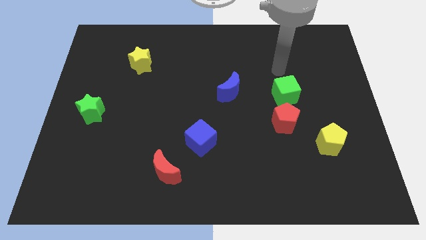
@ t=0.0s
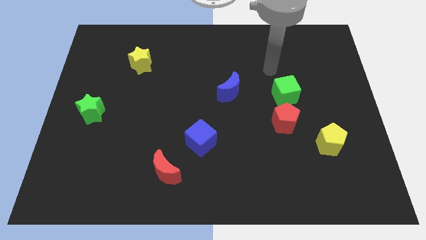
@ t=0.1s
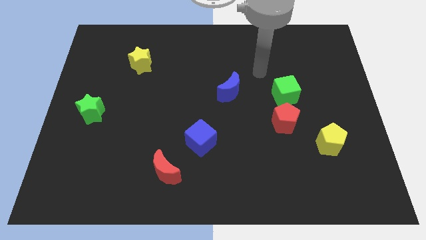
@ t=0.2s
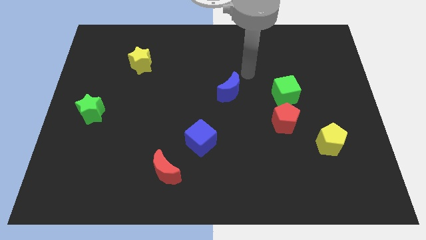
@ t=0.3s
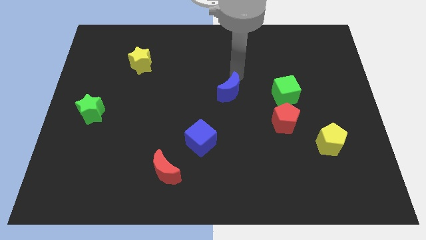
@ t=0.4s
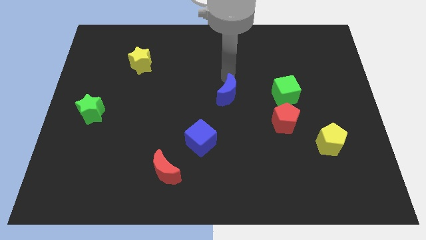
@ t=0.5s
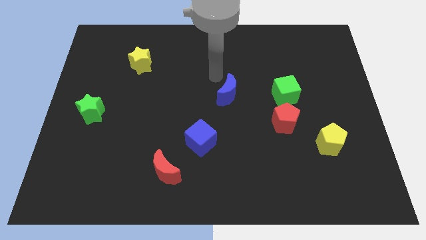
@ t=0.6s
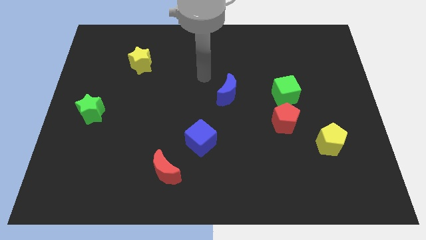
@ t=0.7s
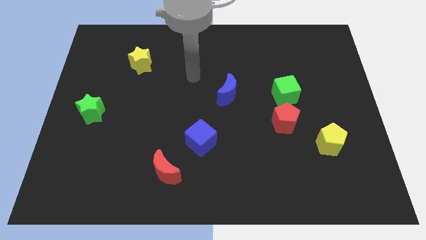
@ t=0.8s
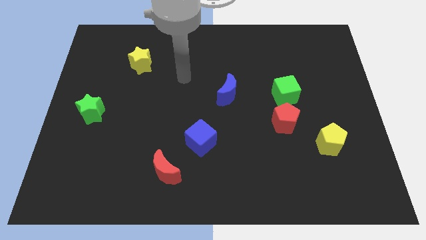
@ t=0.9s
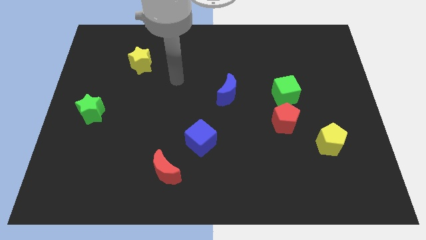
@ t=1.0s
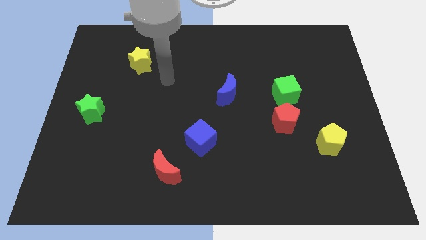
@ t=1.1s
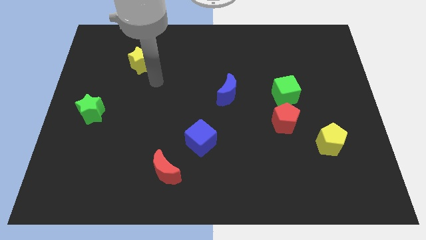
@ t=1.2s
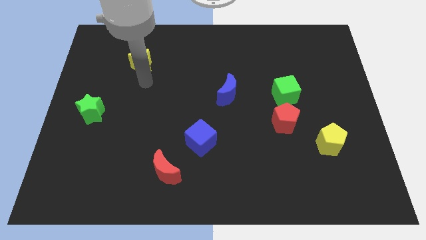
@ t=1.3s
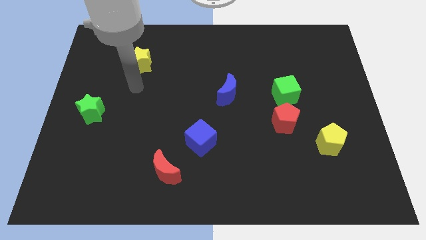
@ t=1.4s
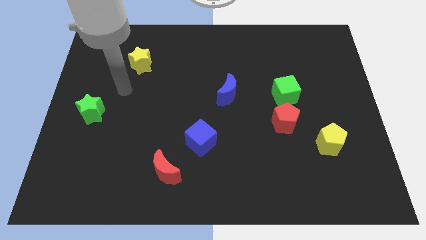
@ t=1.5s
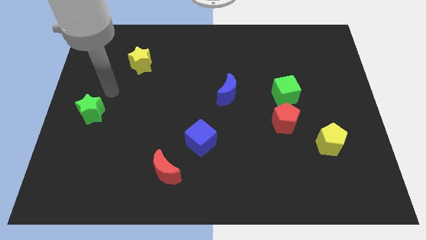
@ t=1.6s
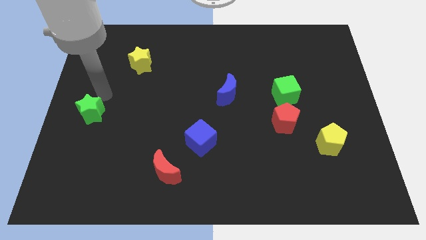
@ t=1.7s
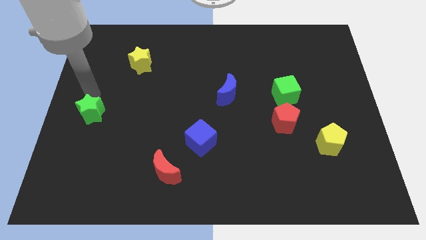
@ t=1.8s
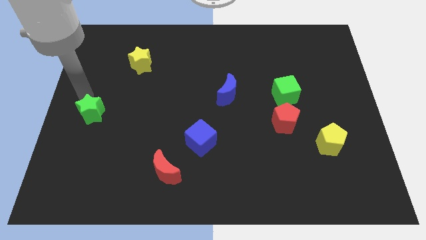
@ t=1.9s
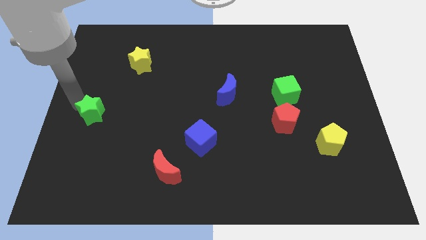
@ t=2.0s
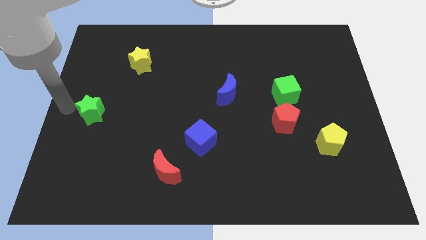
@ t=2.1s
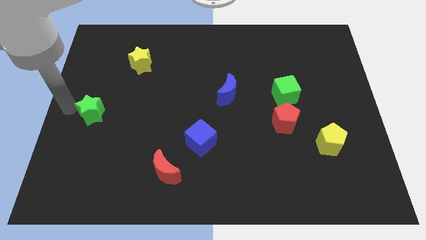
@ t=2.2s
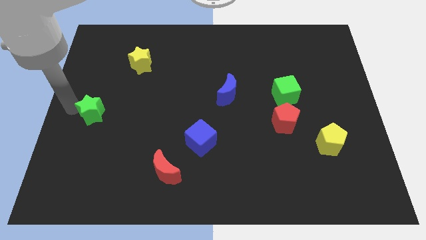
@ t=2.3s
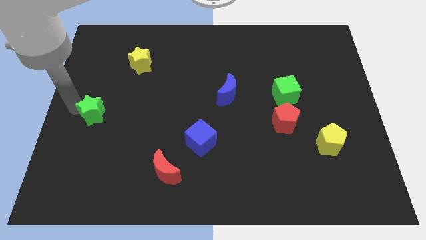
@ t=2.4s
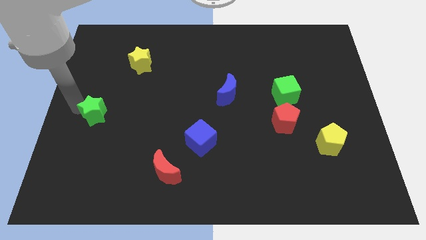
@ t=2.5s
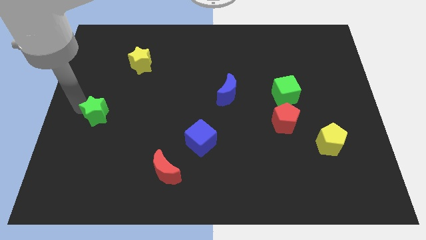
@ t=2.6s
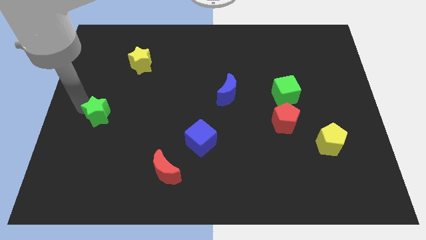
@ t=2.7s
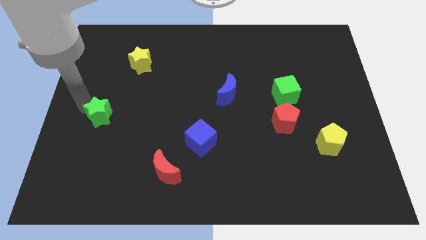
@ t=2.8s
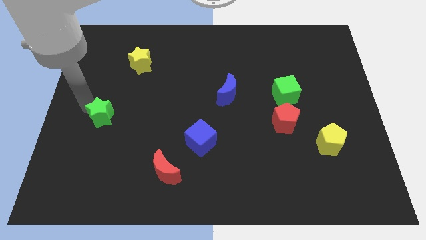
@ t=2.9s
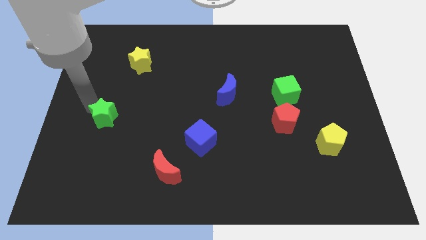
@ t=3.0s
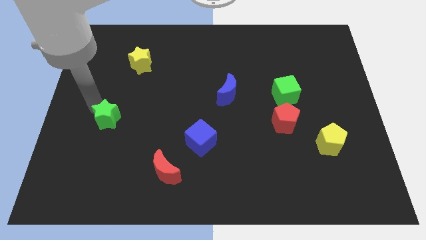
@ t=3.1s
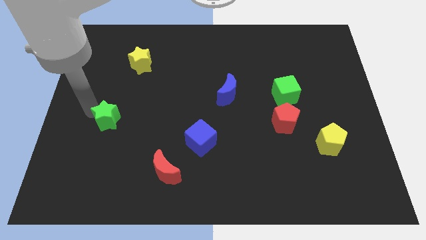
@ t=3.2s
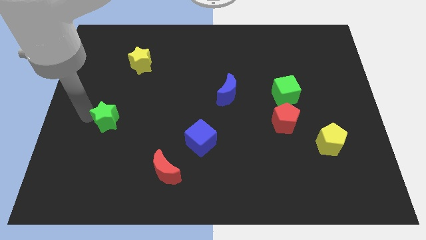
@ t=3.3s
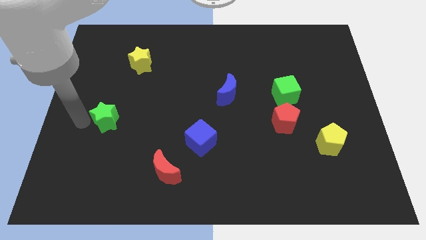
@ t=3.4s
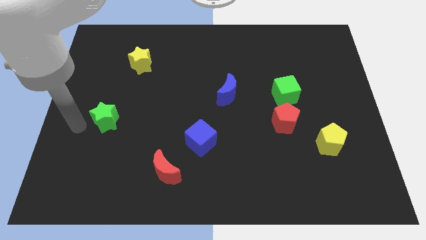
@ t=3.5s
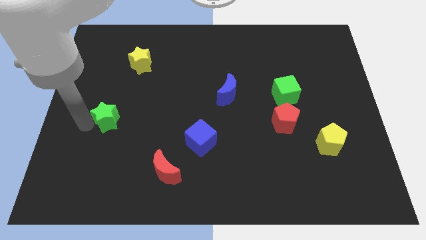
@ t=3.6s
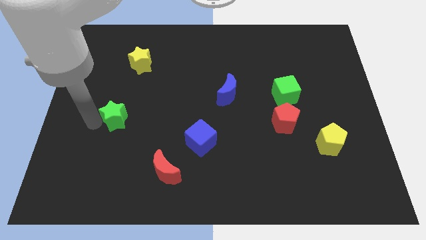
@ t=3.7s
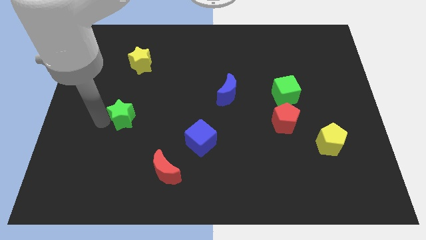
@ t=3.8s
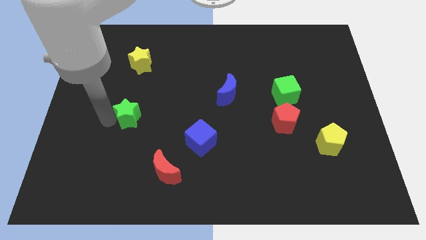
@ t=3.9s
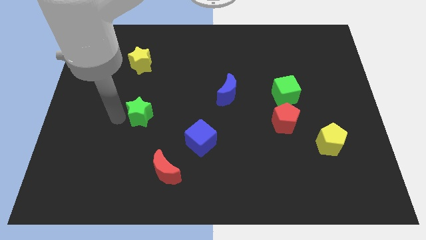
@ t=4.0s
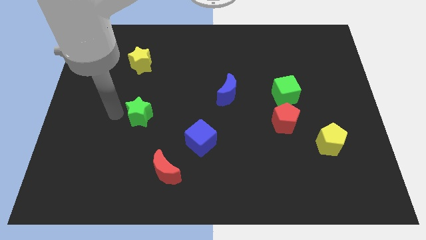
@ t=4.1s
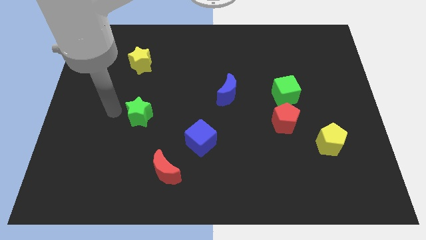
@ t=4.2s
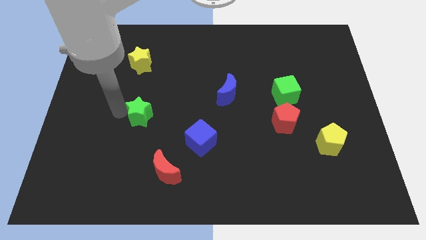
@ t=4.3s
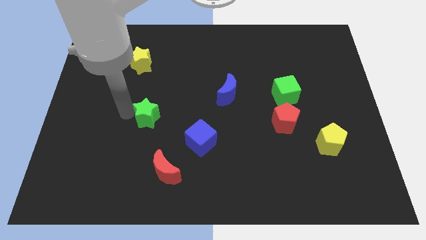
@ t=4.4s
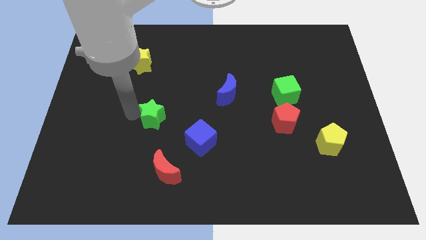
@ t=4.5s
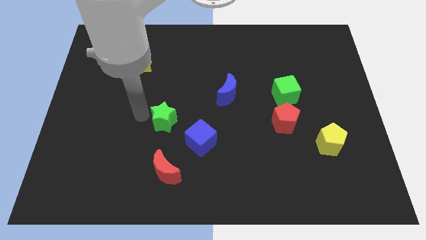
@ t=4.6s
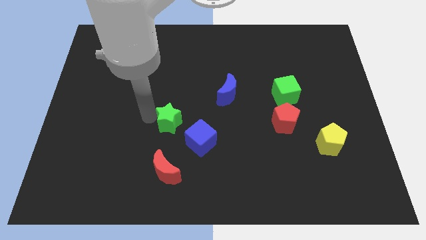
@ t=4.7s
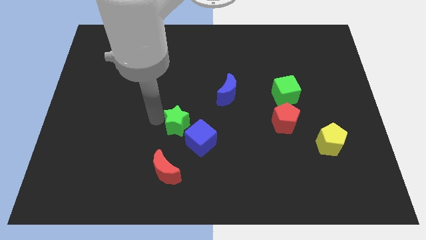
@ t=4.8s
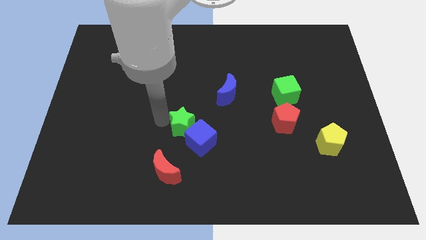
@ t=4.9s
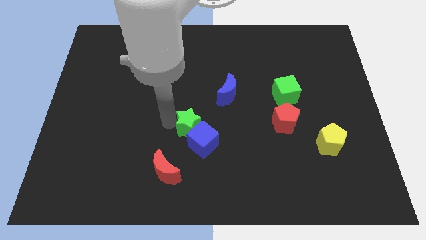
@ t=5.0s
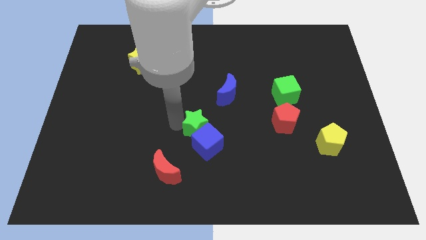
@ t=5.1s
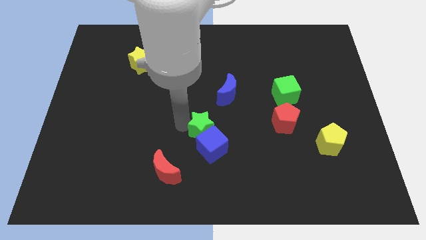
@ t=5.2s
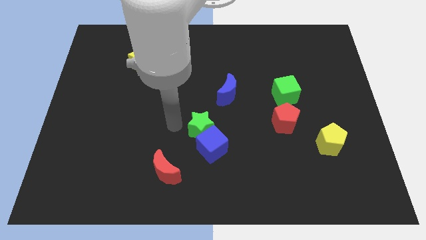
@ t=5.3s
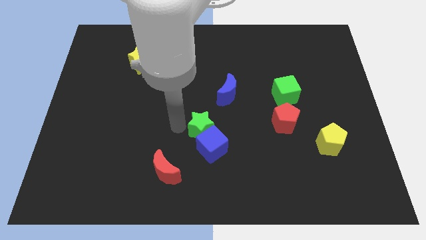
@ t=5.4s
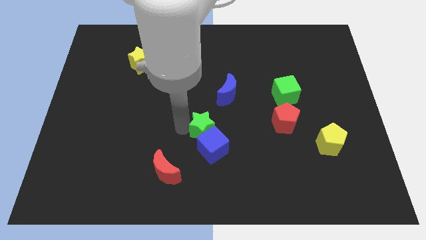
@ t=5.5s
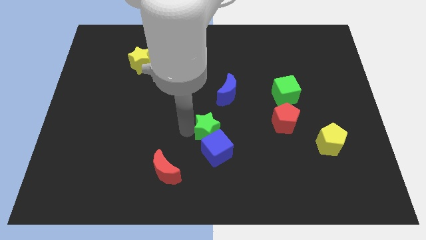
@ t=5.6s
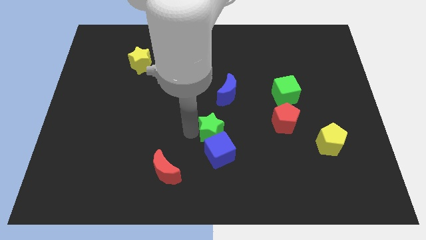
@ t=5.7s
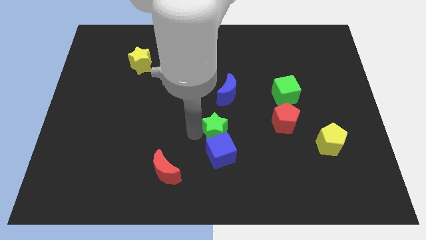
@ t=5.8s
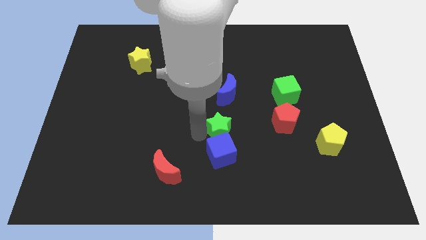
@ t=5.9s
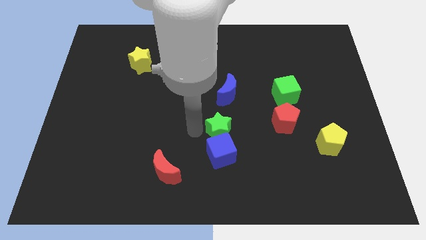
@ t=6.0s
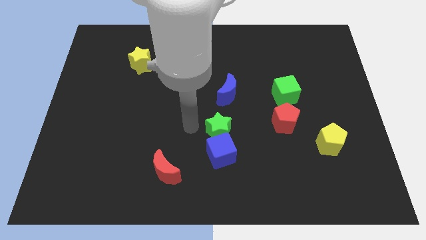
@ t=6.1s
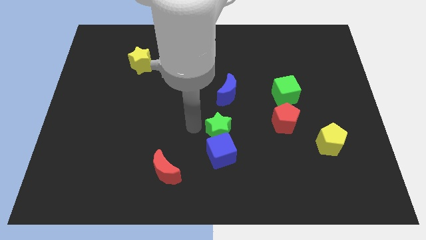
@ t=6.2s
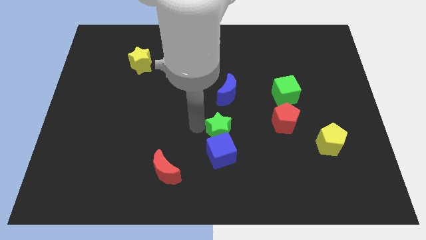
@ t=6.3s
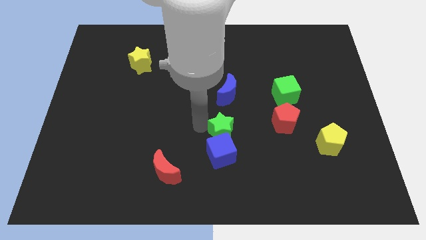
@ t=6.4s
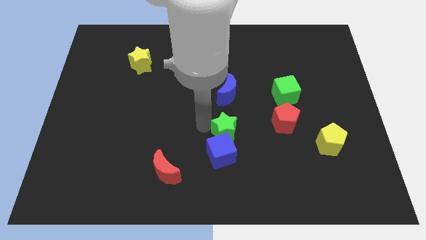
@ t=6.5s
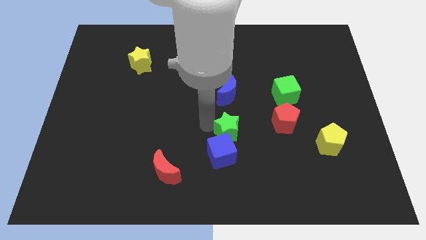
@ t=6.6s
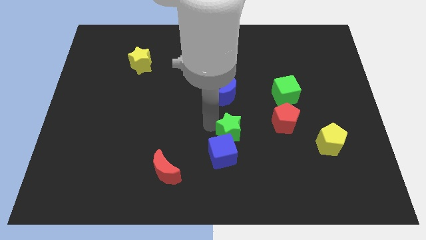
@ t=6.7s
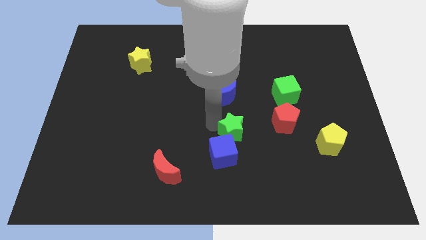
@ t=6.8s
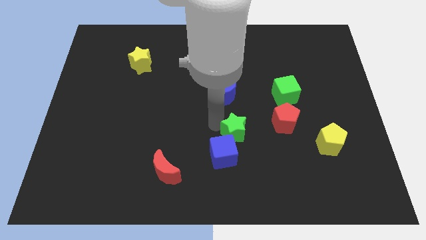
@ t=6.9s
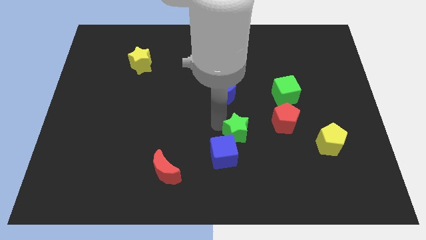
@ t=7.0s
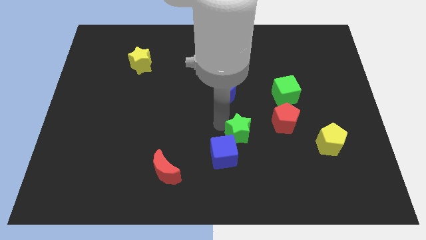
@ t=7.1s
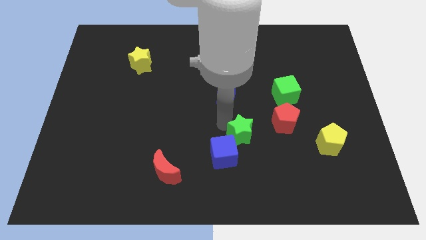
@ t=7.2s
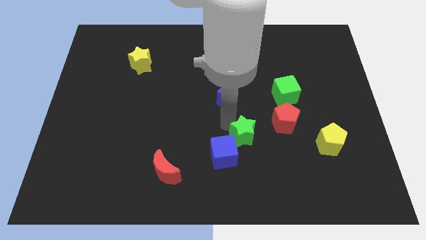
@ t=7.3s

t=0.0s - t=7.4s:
slide the green star to the bottom left side of the red pentagon

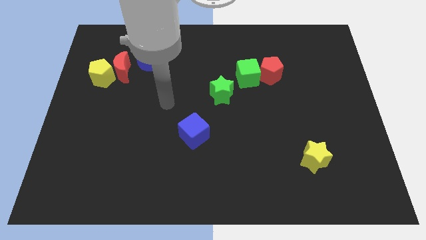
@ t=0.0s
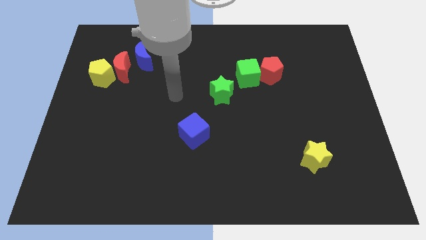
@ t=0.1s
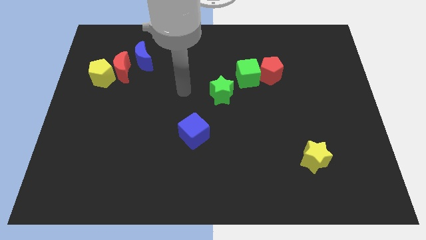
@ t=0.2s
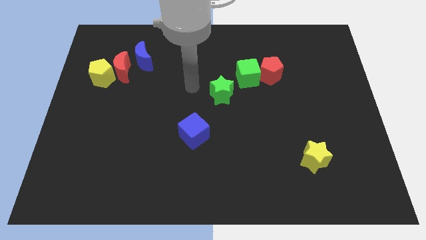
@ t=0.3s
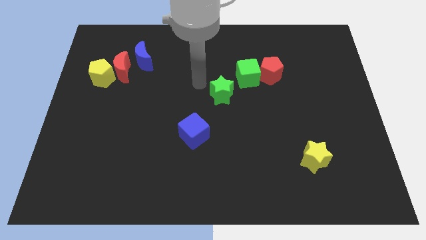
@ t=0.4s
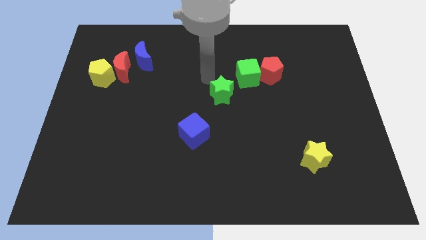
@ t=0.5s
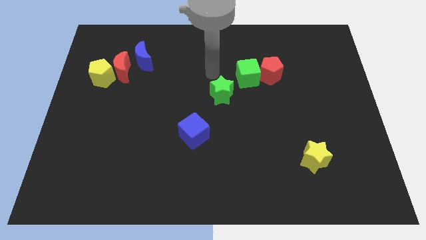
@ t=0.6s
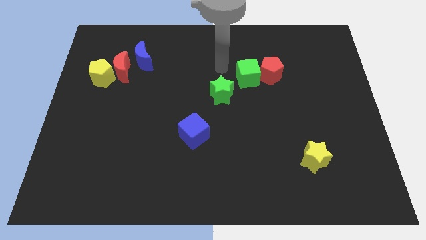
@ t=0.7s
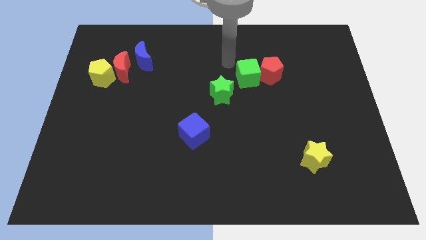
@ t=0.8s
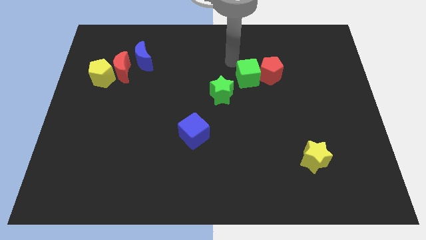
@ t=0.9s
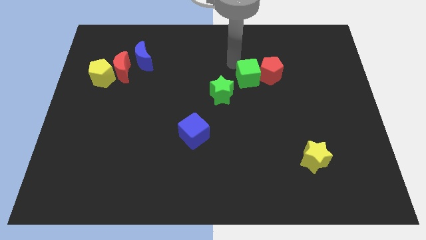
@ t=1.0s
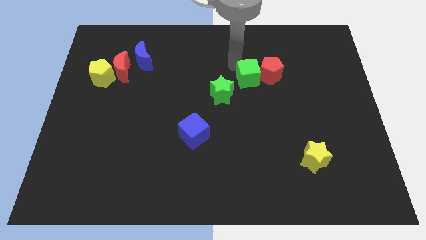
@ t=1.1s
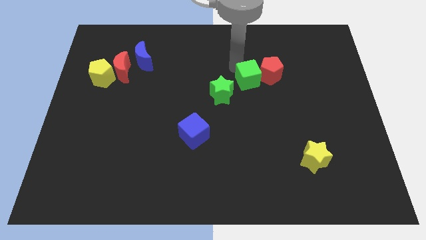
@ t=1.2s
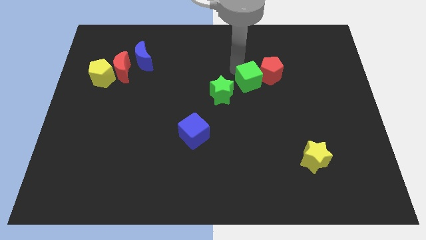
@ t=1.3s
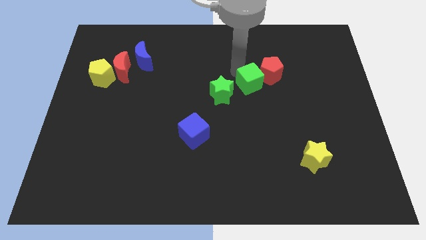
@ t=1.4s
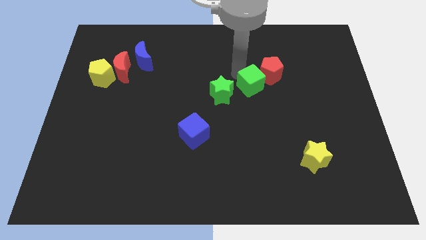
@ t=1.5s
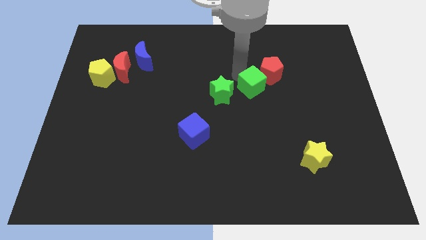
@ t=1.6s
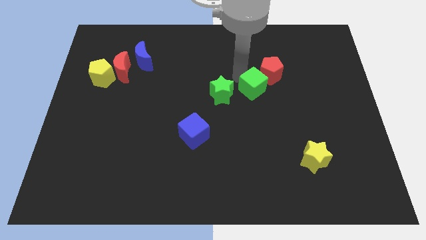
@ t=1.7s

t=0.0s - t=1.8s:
move the green cube to the bottom of the red pentagon
